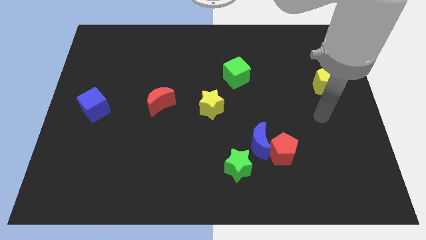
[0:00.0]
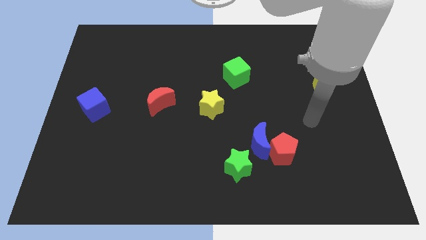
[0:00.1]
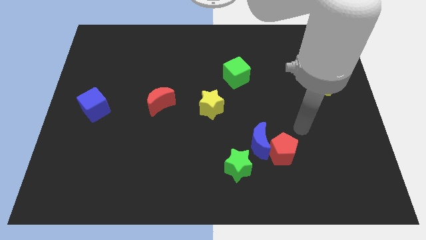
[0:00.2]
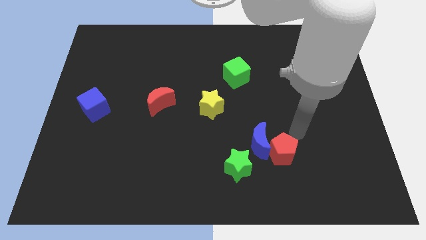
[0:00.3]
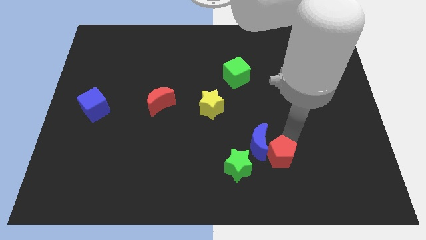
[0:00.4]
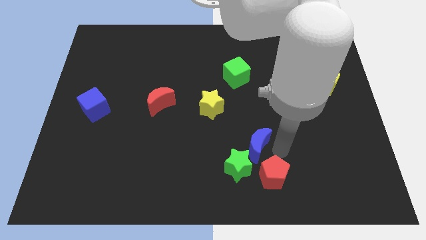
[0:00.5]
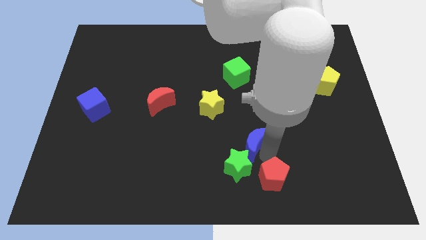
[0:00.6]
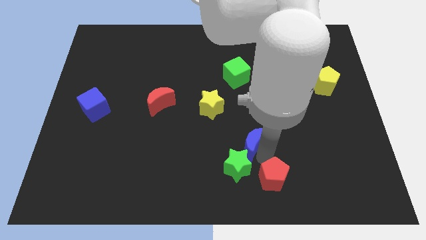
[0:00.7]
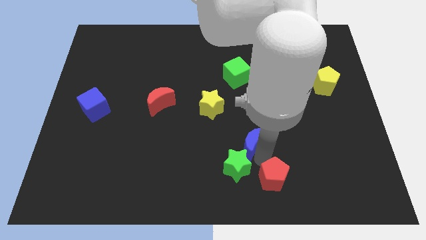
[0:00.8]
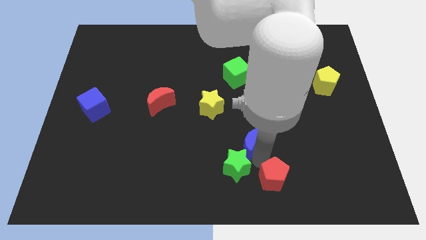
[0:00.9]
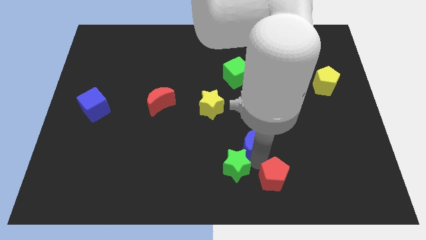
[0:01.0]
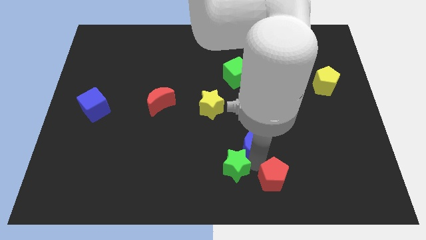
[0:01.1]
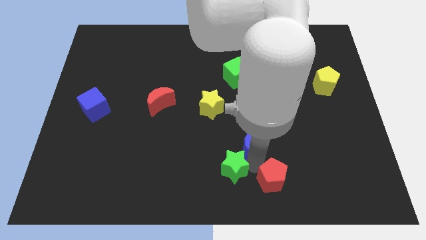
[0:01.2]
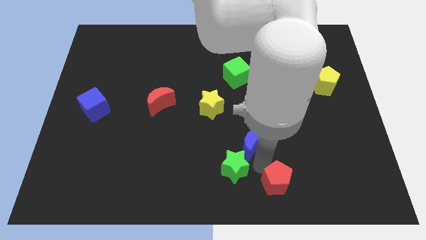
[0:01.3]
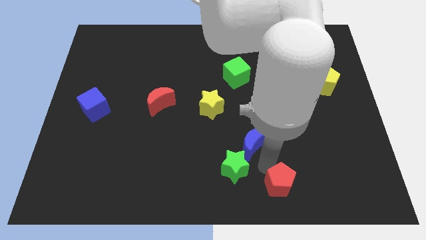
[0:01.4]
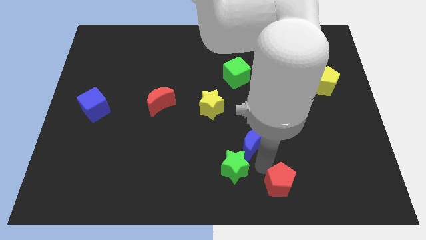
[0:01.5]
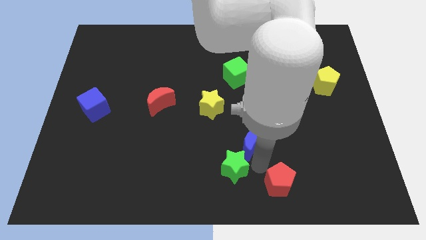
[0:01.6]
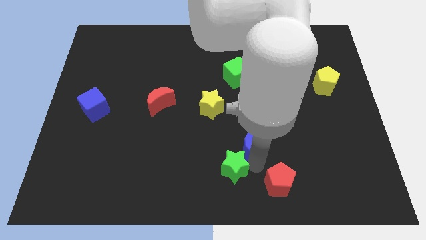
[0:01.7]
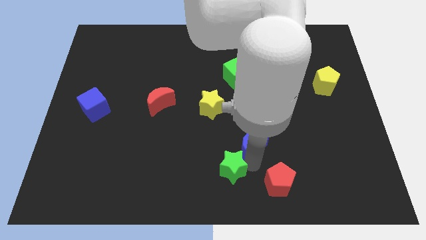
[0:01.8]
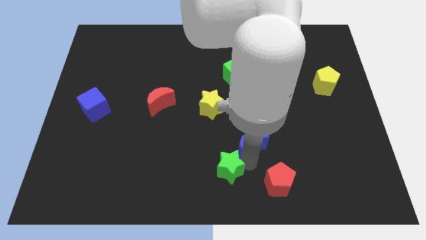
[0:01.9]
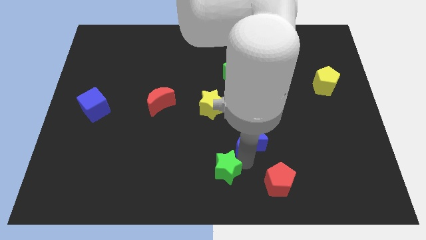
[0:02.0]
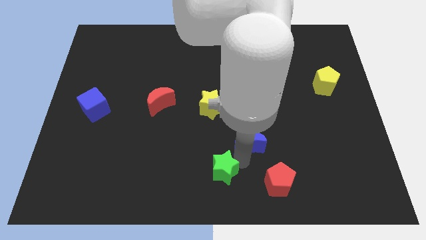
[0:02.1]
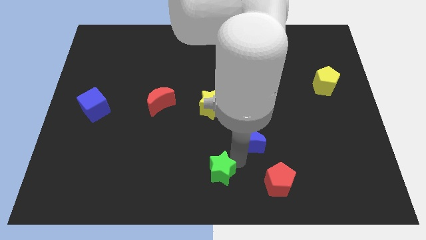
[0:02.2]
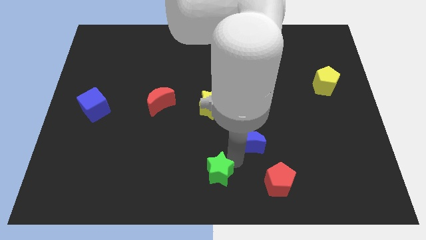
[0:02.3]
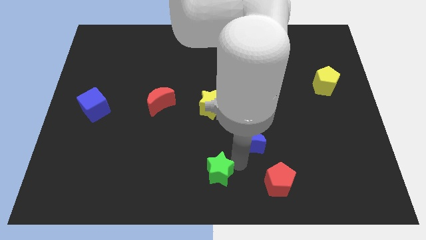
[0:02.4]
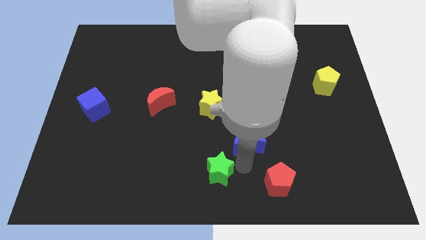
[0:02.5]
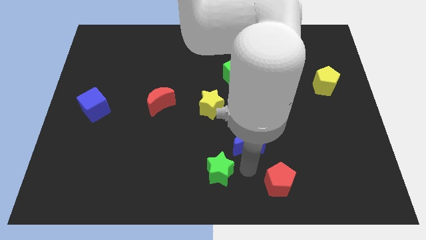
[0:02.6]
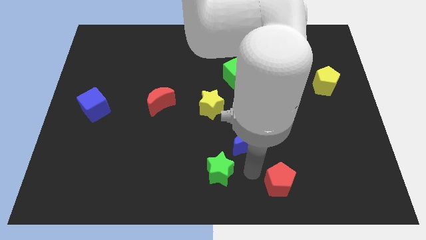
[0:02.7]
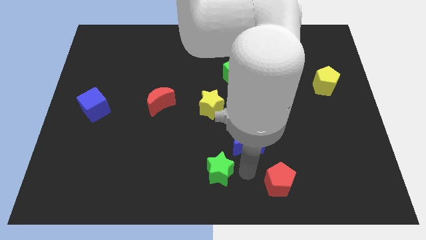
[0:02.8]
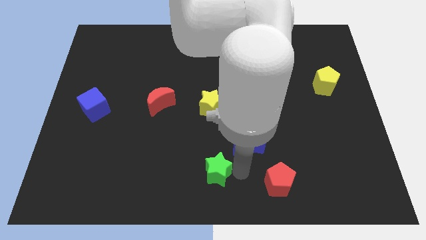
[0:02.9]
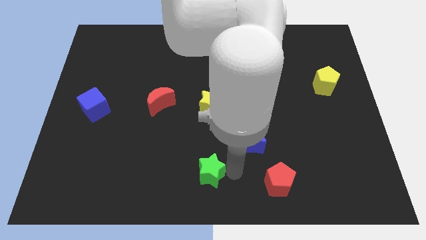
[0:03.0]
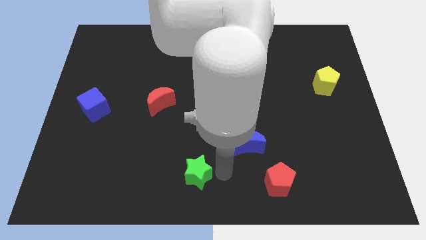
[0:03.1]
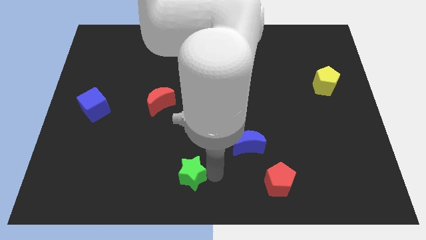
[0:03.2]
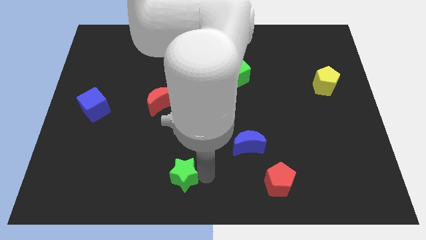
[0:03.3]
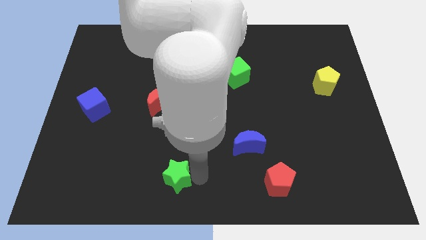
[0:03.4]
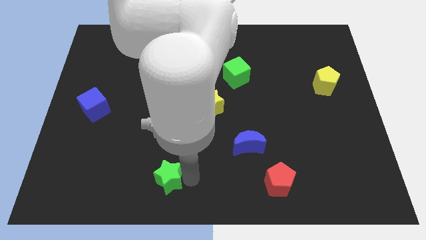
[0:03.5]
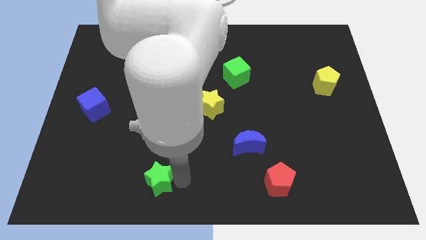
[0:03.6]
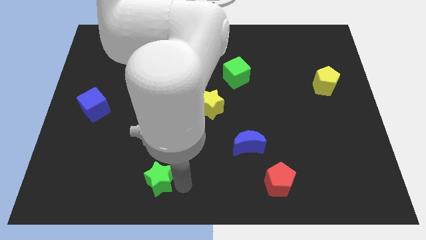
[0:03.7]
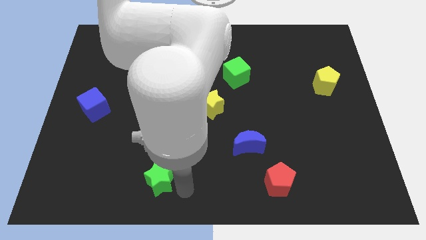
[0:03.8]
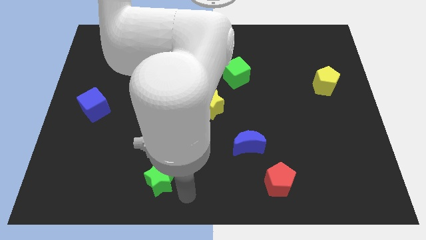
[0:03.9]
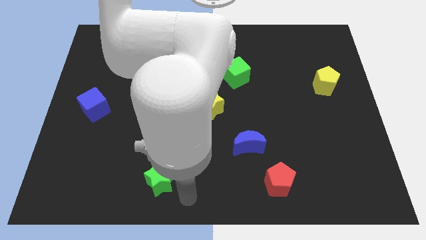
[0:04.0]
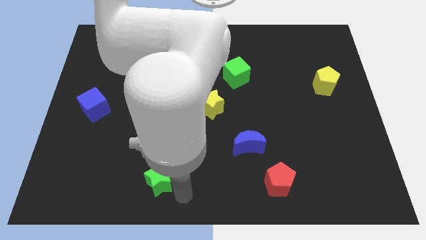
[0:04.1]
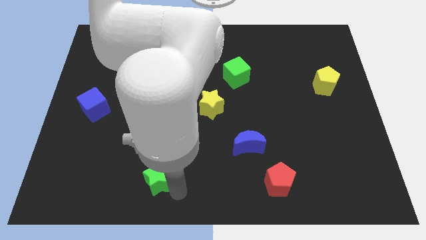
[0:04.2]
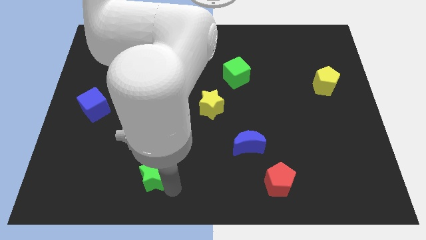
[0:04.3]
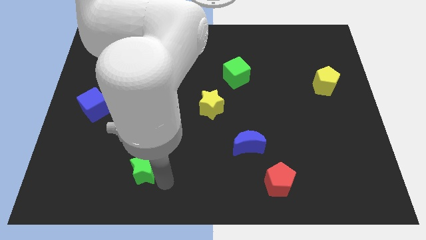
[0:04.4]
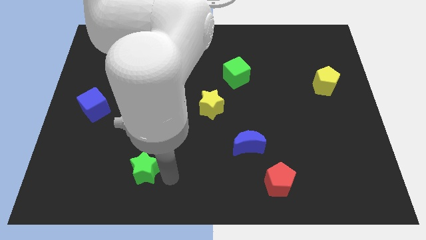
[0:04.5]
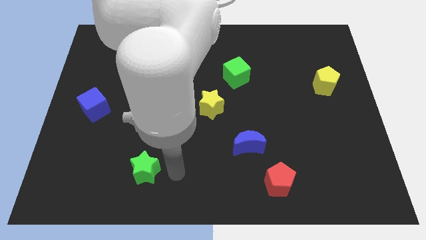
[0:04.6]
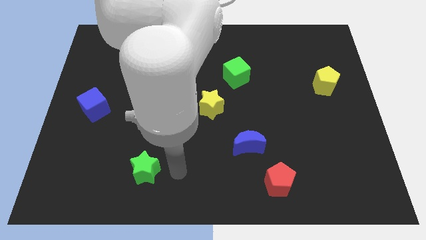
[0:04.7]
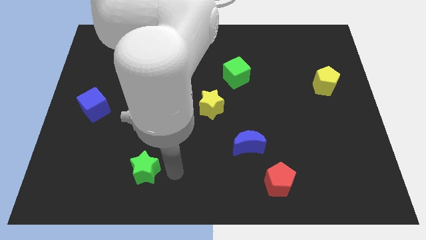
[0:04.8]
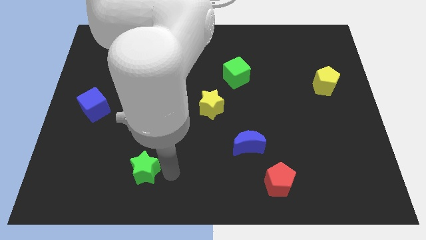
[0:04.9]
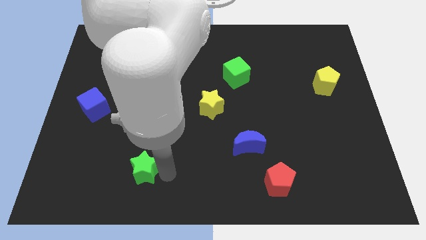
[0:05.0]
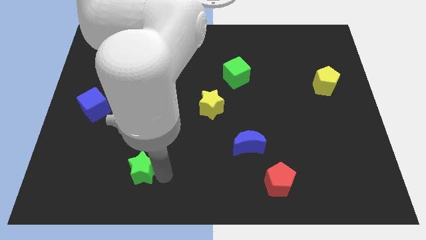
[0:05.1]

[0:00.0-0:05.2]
move the green star to the left

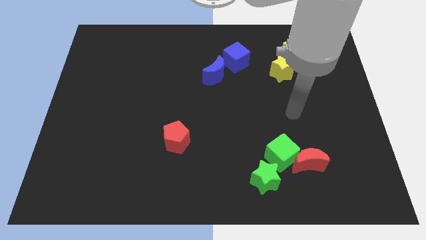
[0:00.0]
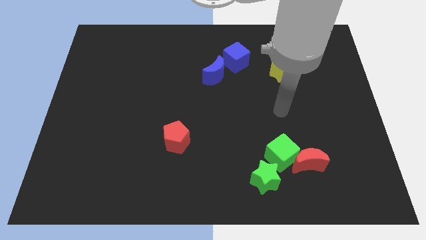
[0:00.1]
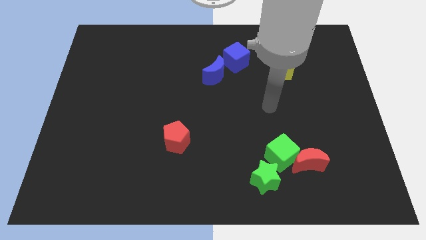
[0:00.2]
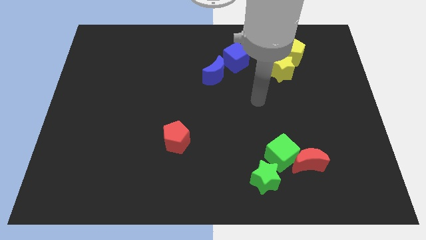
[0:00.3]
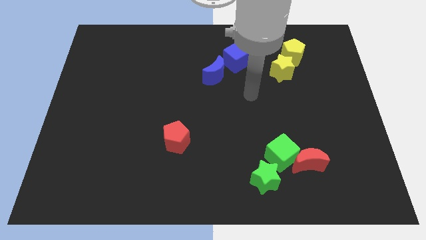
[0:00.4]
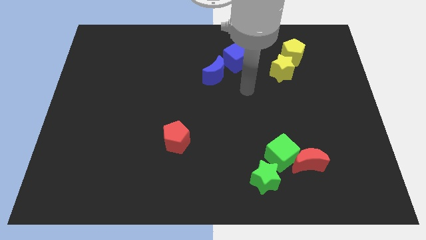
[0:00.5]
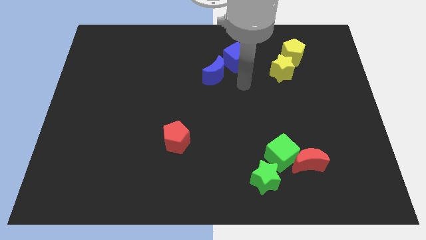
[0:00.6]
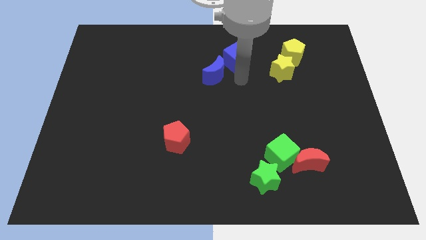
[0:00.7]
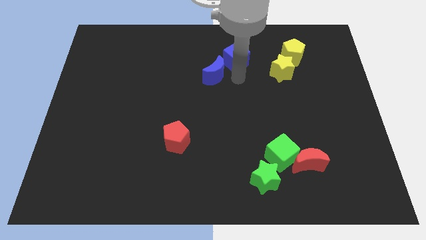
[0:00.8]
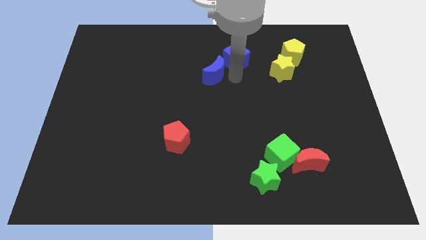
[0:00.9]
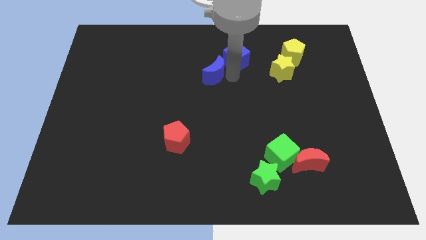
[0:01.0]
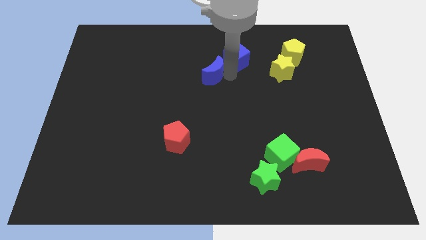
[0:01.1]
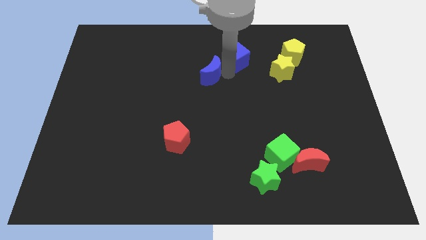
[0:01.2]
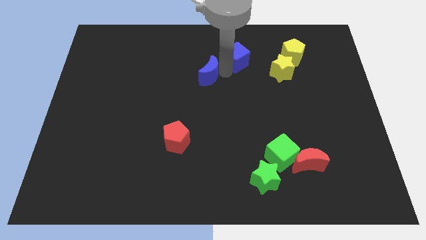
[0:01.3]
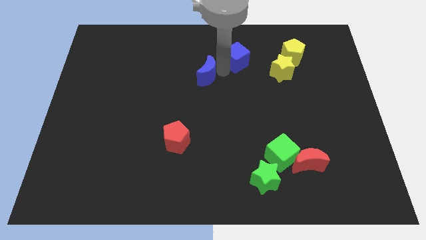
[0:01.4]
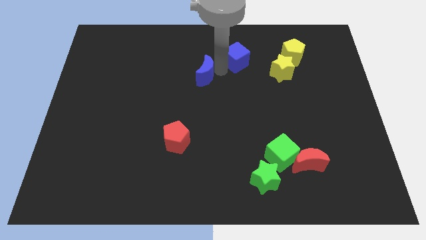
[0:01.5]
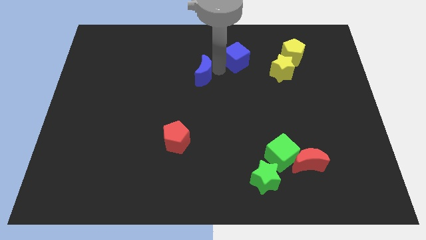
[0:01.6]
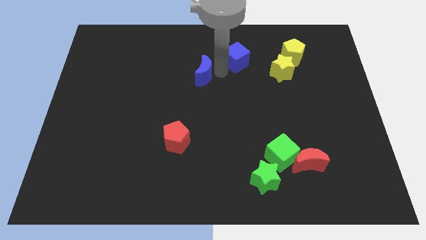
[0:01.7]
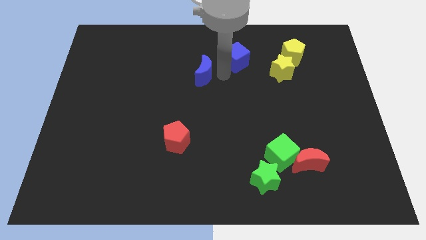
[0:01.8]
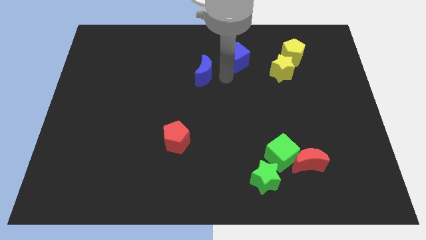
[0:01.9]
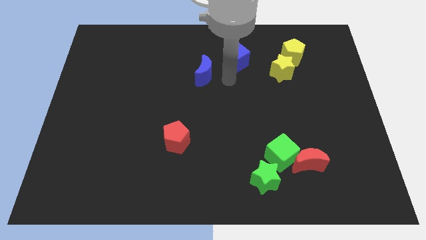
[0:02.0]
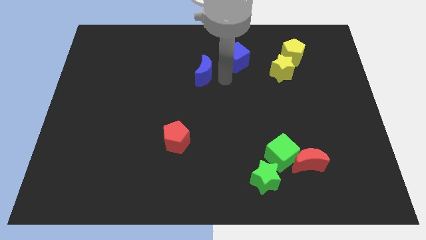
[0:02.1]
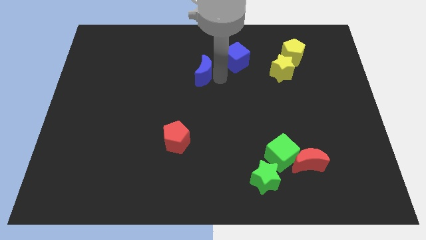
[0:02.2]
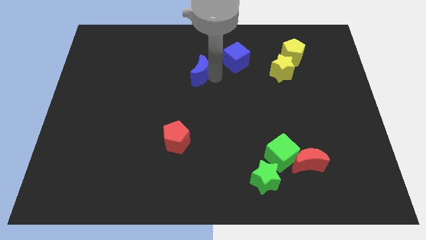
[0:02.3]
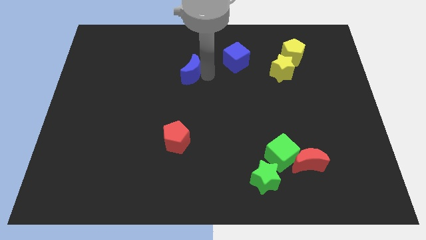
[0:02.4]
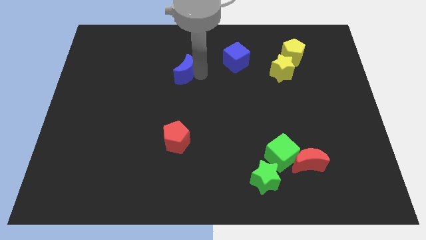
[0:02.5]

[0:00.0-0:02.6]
push the blue moon a little bit to the left
